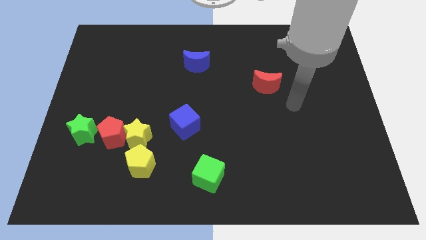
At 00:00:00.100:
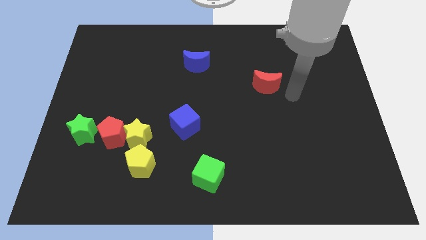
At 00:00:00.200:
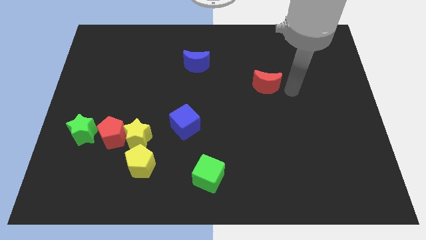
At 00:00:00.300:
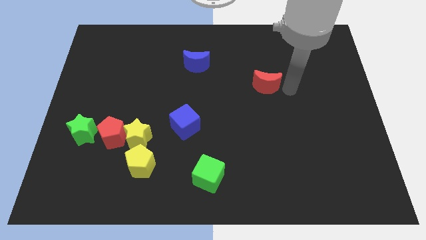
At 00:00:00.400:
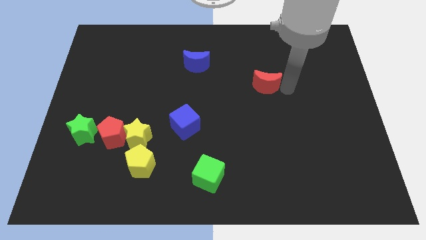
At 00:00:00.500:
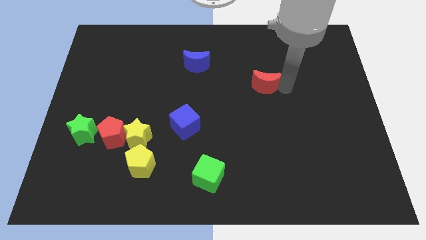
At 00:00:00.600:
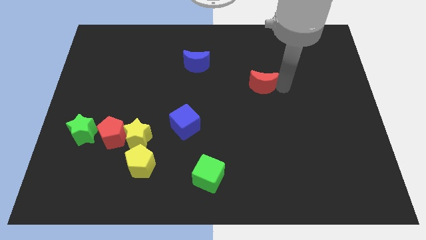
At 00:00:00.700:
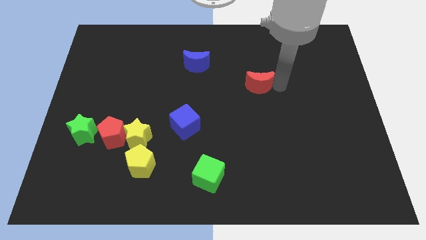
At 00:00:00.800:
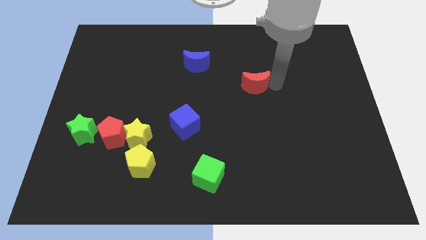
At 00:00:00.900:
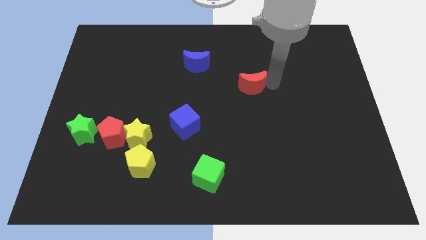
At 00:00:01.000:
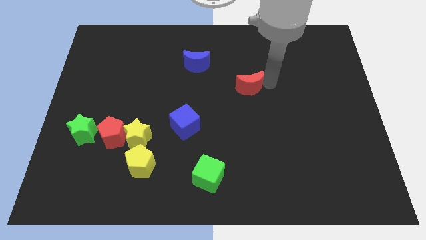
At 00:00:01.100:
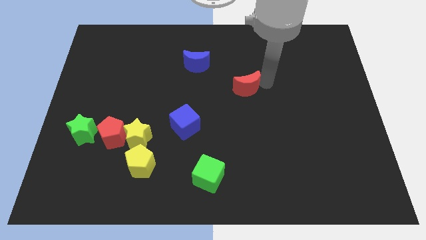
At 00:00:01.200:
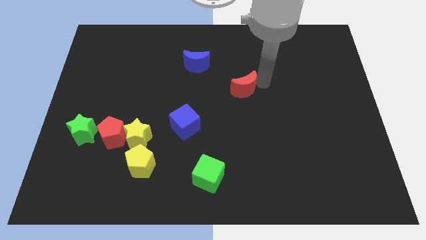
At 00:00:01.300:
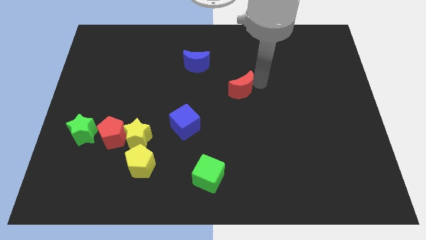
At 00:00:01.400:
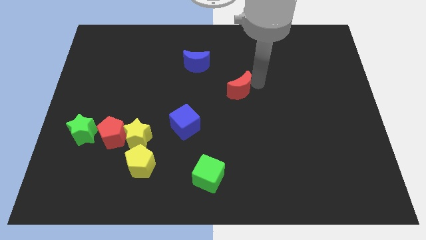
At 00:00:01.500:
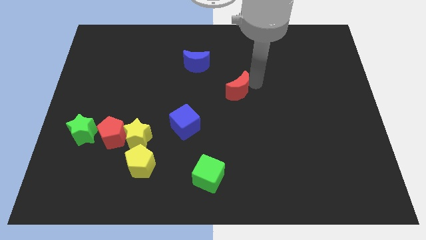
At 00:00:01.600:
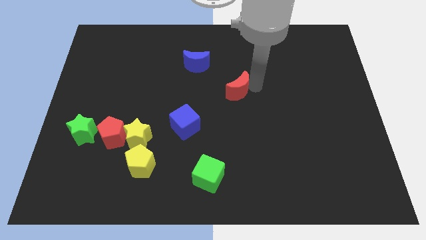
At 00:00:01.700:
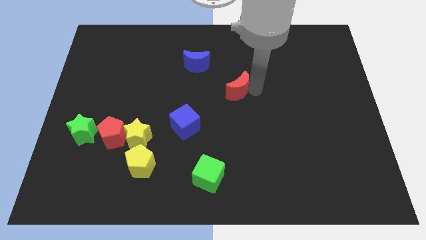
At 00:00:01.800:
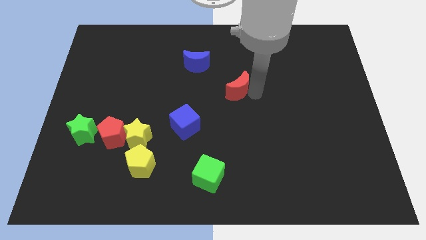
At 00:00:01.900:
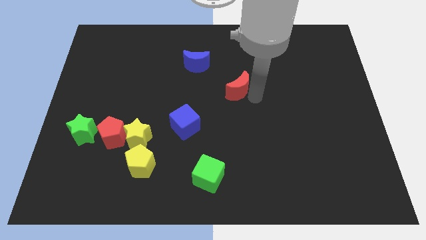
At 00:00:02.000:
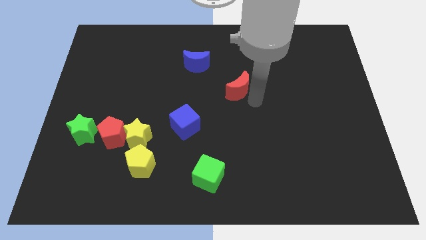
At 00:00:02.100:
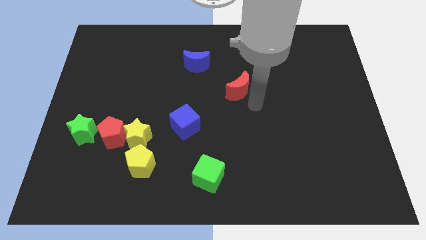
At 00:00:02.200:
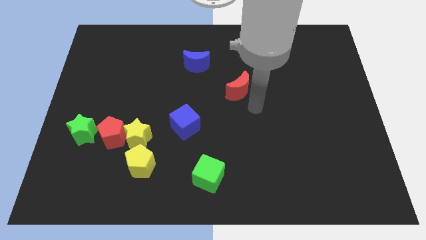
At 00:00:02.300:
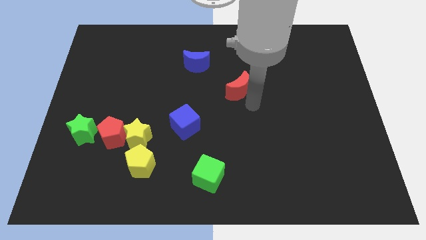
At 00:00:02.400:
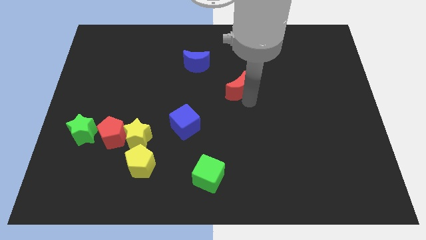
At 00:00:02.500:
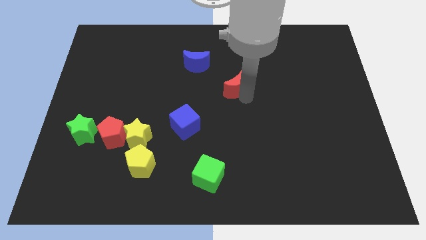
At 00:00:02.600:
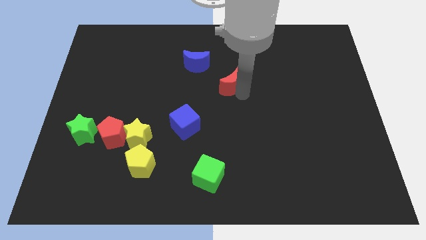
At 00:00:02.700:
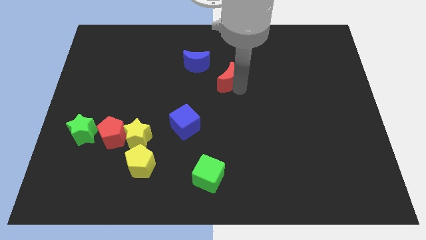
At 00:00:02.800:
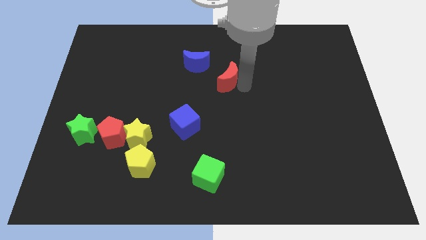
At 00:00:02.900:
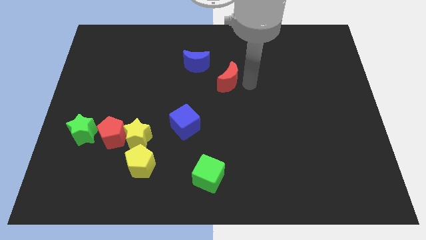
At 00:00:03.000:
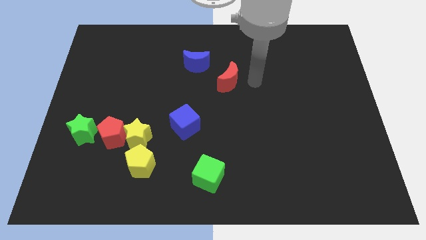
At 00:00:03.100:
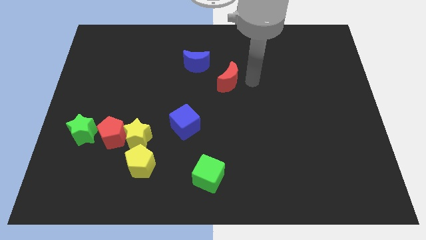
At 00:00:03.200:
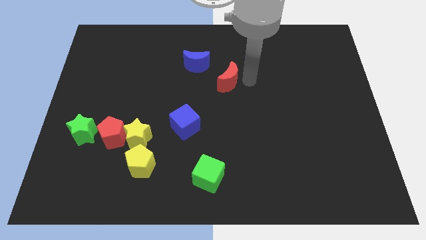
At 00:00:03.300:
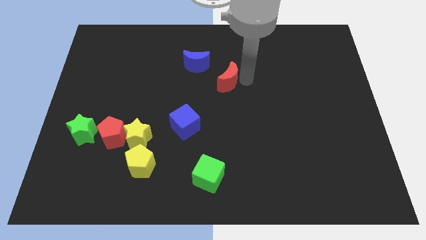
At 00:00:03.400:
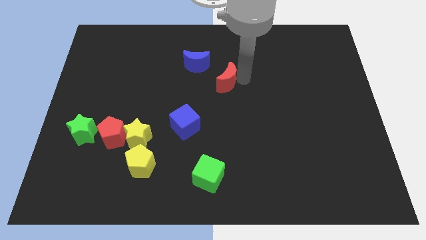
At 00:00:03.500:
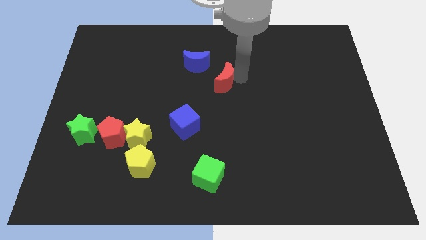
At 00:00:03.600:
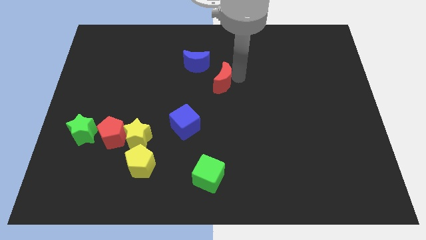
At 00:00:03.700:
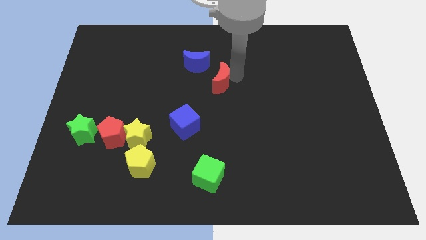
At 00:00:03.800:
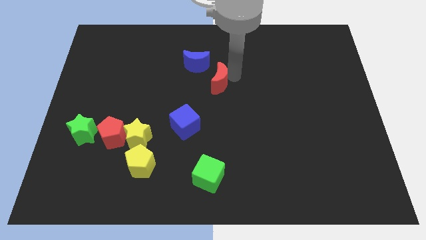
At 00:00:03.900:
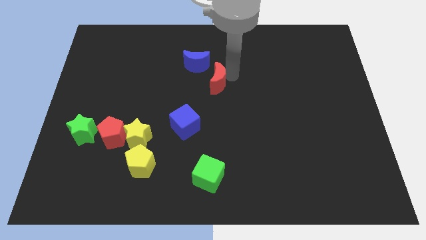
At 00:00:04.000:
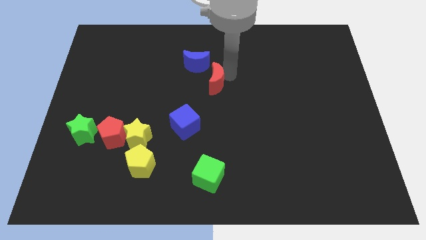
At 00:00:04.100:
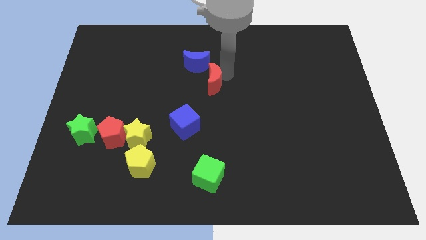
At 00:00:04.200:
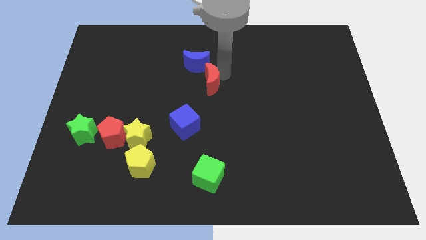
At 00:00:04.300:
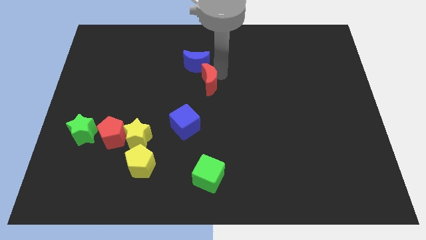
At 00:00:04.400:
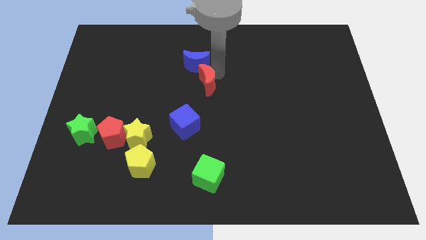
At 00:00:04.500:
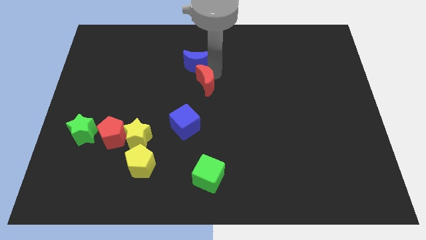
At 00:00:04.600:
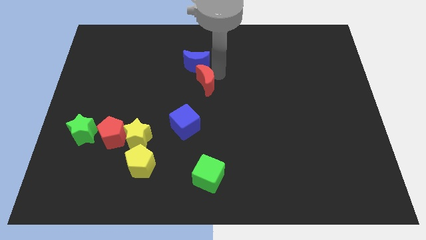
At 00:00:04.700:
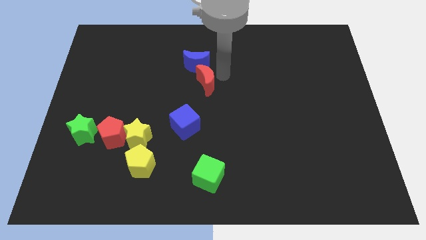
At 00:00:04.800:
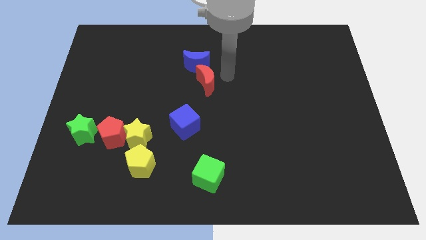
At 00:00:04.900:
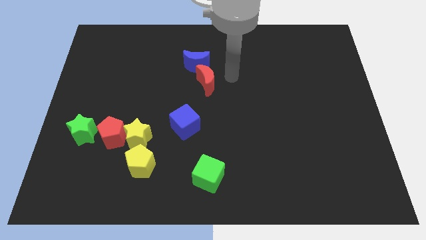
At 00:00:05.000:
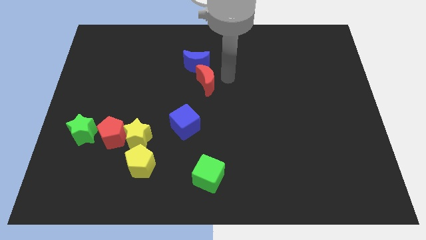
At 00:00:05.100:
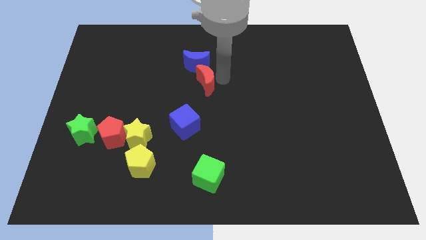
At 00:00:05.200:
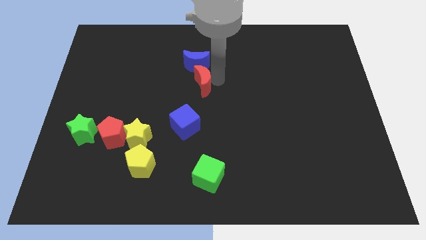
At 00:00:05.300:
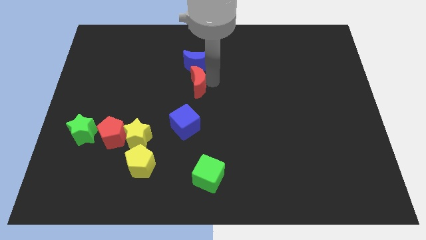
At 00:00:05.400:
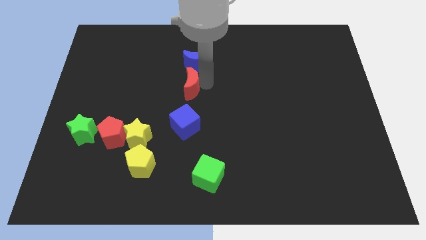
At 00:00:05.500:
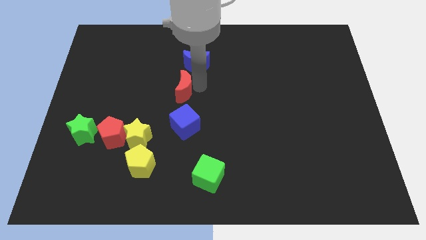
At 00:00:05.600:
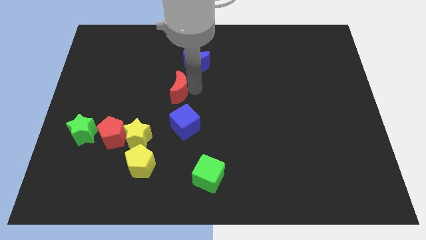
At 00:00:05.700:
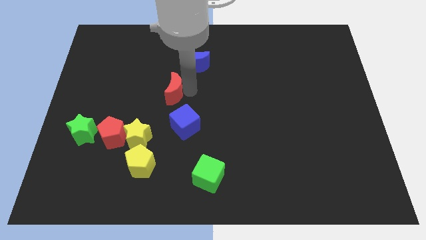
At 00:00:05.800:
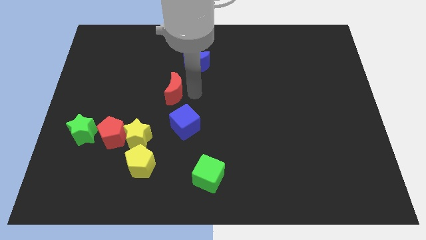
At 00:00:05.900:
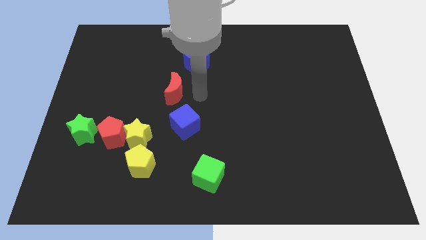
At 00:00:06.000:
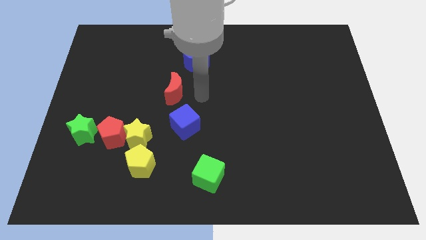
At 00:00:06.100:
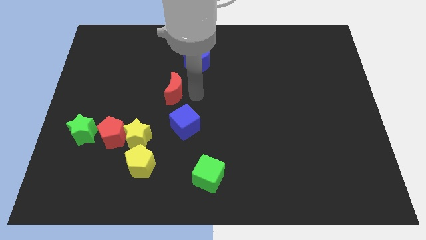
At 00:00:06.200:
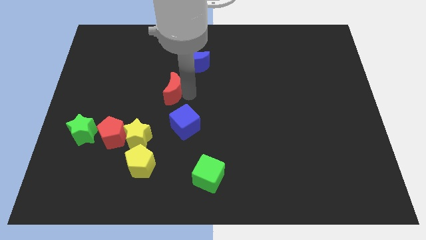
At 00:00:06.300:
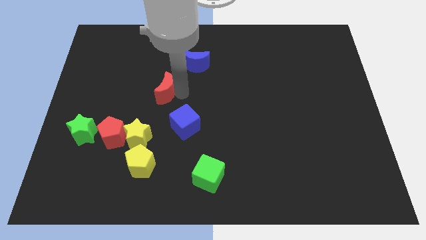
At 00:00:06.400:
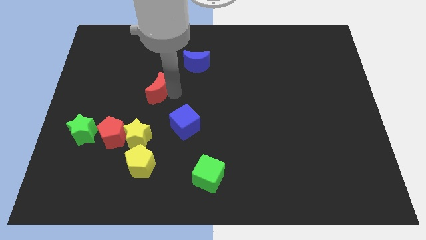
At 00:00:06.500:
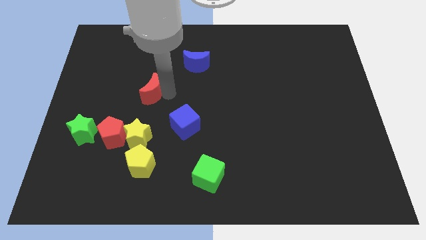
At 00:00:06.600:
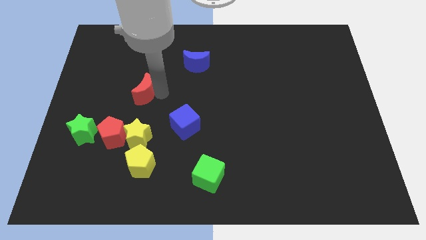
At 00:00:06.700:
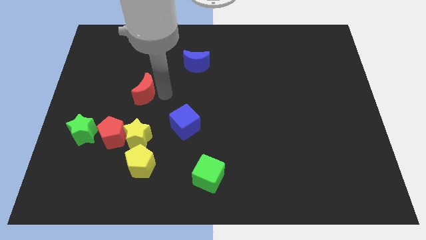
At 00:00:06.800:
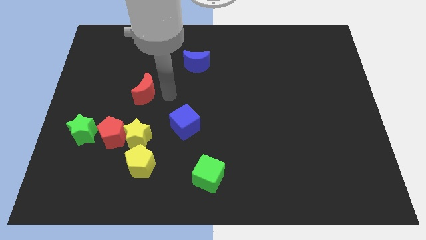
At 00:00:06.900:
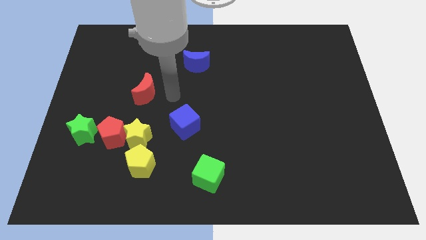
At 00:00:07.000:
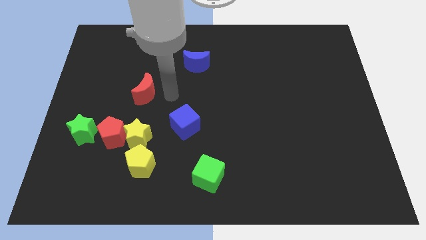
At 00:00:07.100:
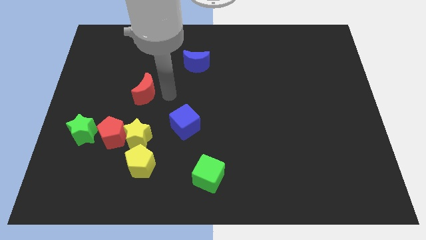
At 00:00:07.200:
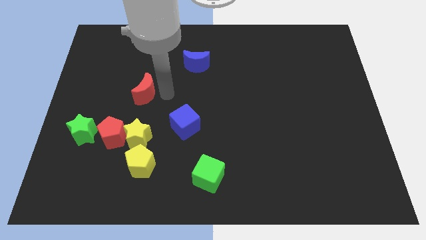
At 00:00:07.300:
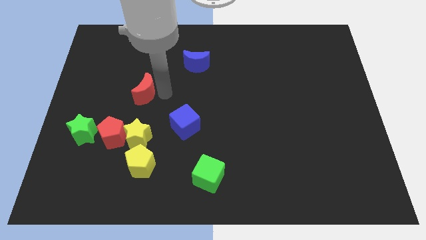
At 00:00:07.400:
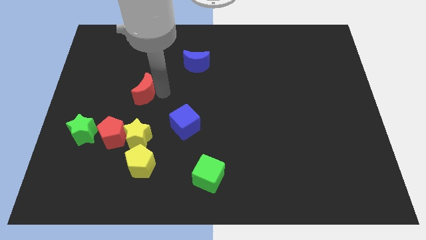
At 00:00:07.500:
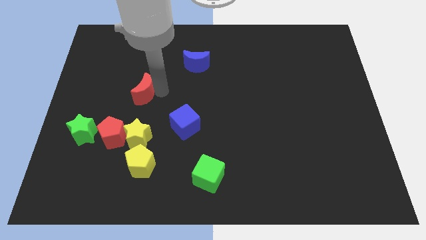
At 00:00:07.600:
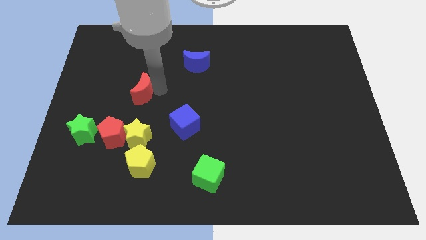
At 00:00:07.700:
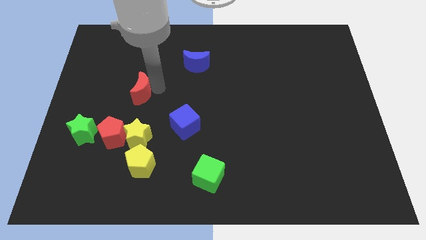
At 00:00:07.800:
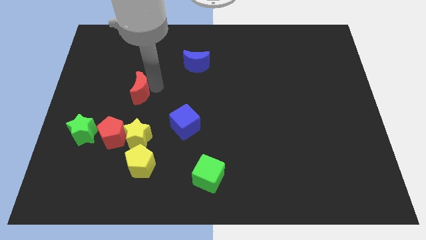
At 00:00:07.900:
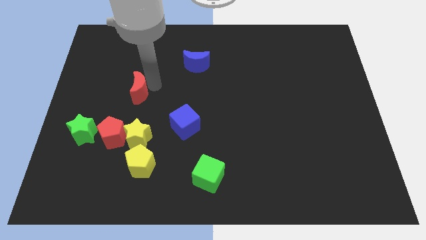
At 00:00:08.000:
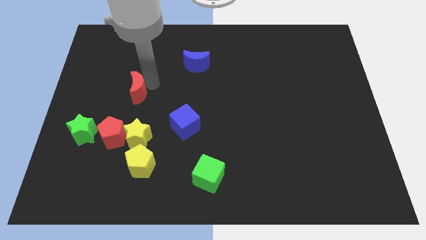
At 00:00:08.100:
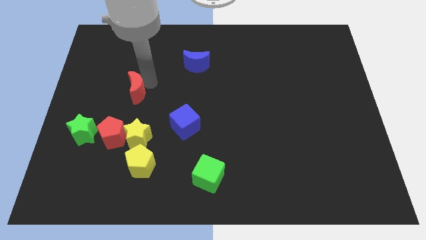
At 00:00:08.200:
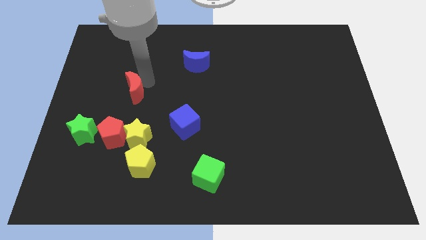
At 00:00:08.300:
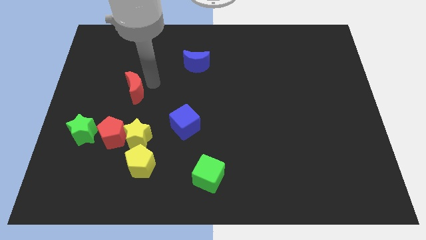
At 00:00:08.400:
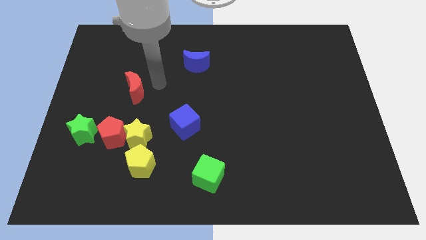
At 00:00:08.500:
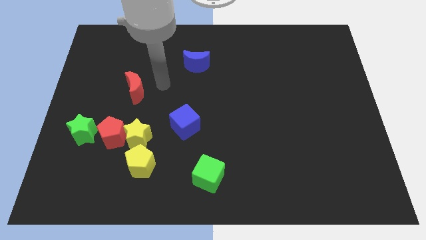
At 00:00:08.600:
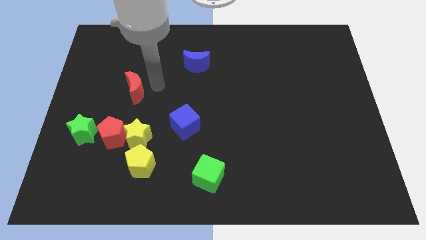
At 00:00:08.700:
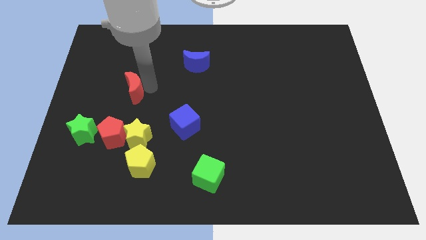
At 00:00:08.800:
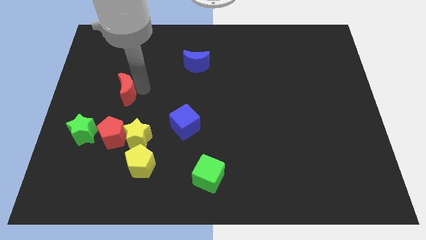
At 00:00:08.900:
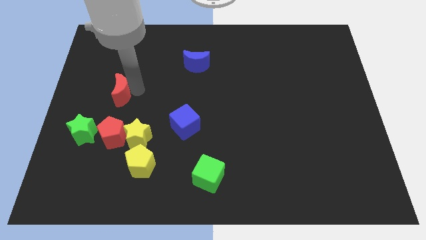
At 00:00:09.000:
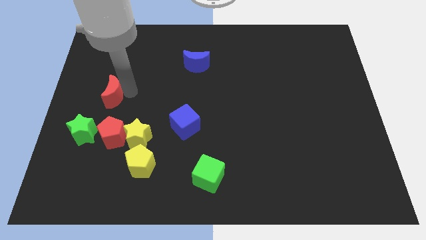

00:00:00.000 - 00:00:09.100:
move the red moon above the green star
